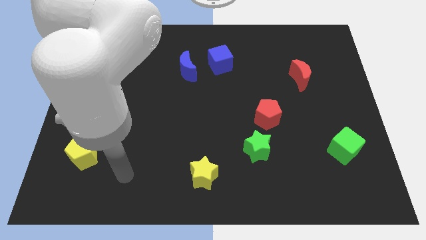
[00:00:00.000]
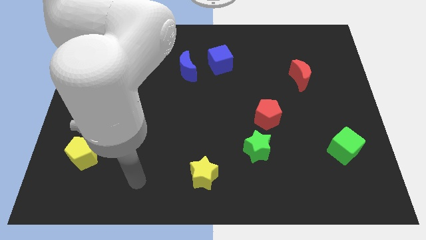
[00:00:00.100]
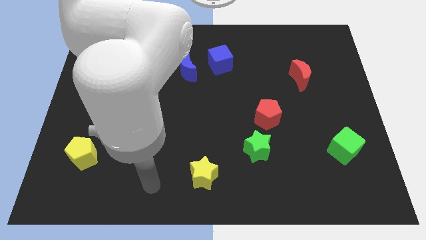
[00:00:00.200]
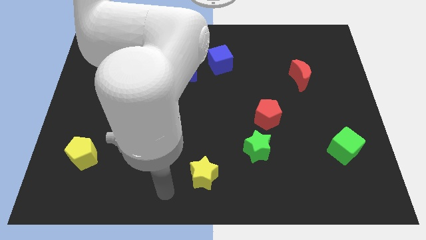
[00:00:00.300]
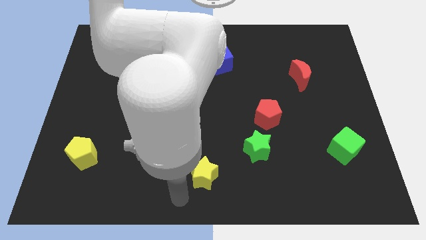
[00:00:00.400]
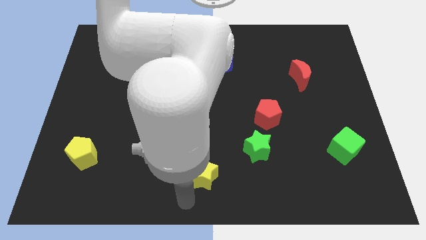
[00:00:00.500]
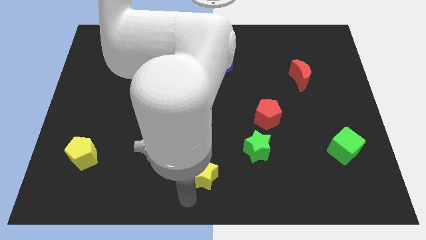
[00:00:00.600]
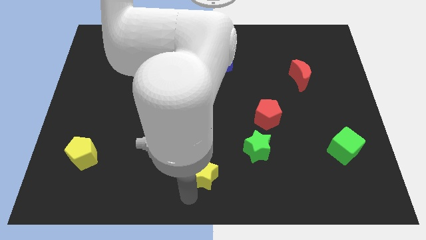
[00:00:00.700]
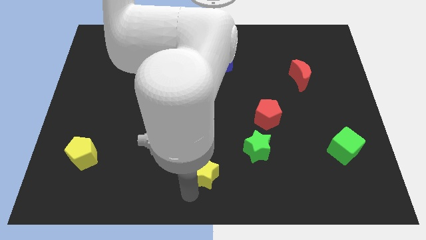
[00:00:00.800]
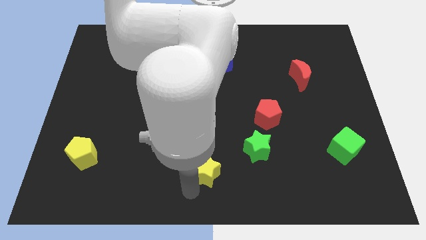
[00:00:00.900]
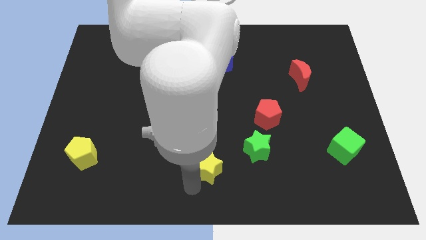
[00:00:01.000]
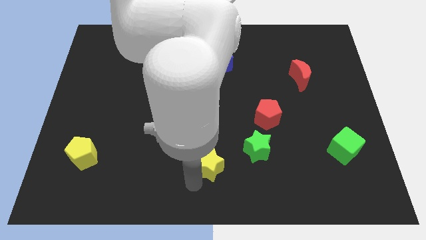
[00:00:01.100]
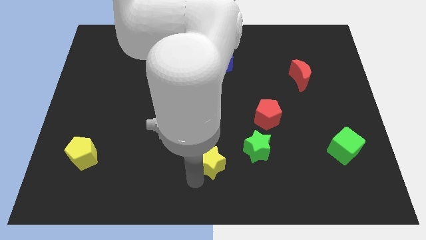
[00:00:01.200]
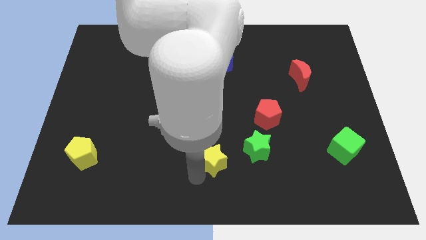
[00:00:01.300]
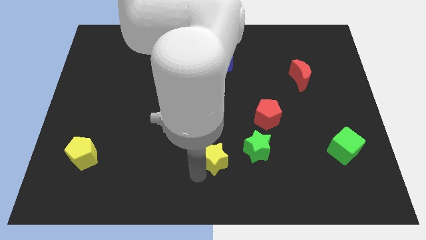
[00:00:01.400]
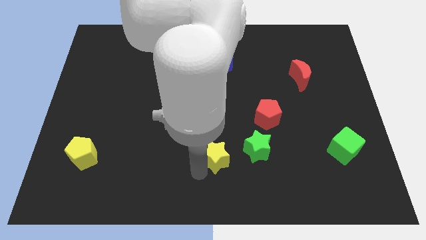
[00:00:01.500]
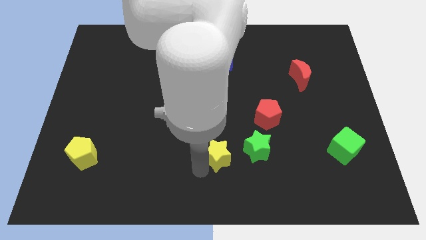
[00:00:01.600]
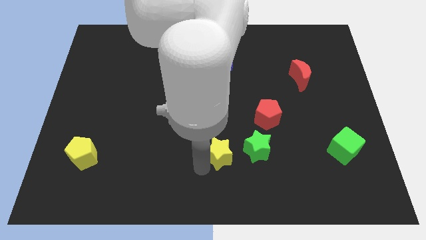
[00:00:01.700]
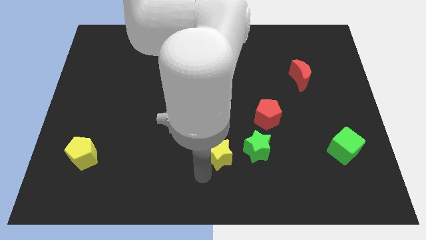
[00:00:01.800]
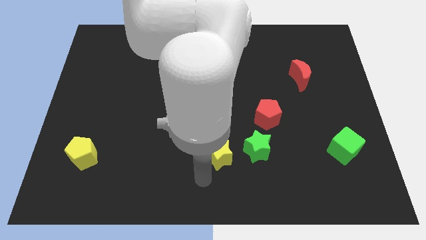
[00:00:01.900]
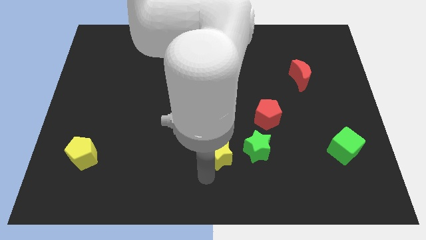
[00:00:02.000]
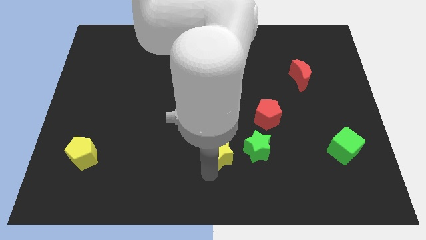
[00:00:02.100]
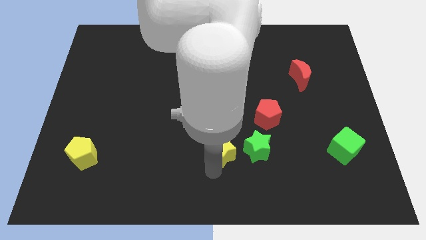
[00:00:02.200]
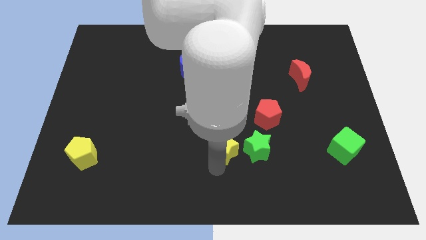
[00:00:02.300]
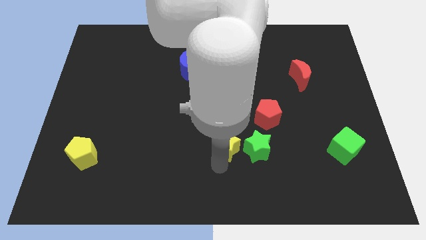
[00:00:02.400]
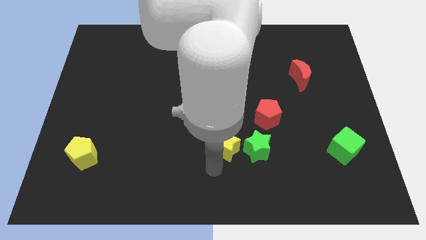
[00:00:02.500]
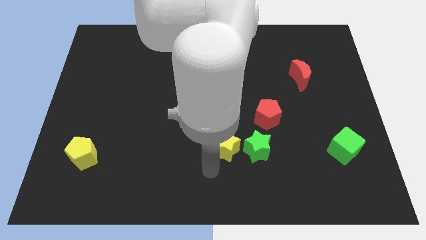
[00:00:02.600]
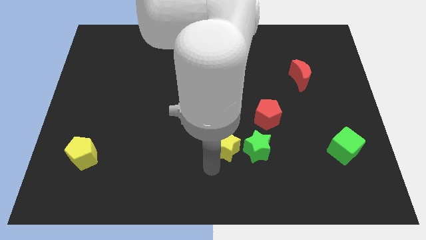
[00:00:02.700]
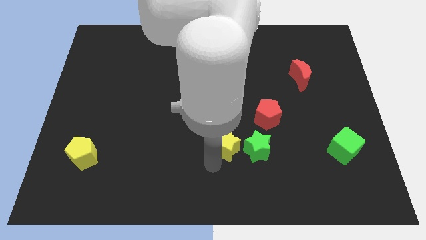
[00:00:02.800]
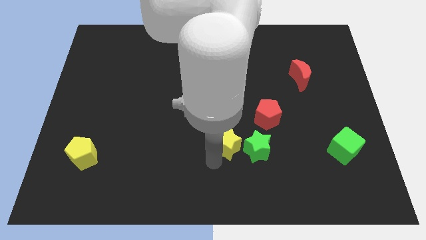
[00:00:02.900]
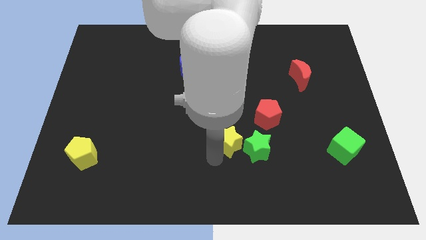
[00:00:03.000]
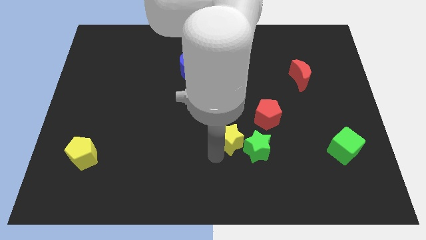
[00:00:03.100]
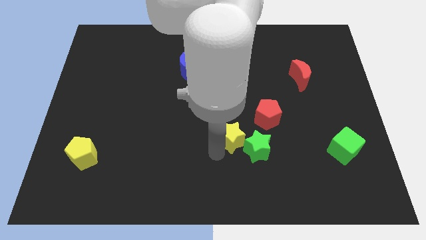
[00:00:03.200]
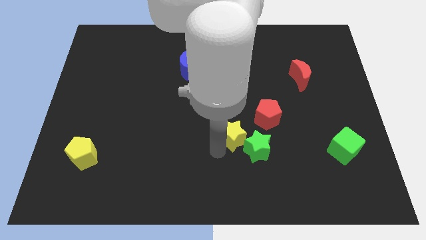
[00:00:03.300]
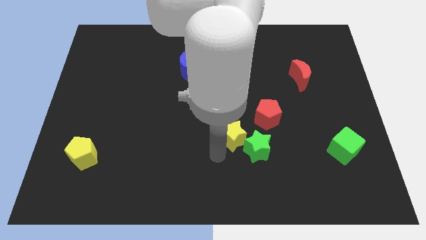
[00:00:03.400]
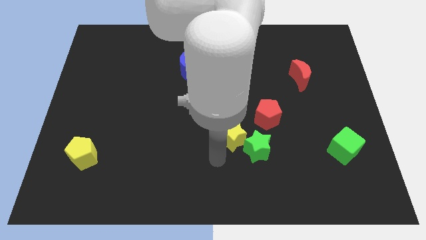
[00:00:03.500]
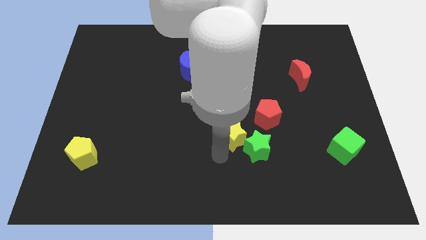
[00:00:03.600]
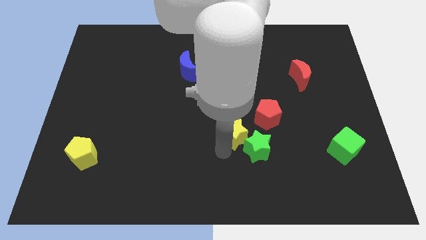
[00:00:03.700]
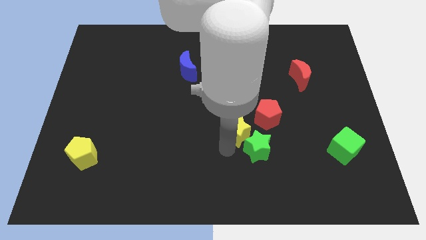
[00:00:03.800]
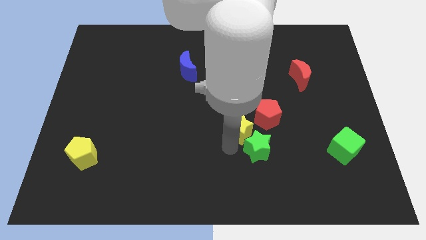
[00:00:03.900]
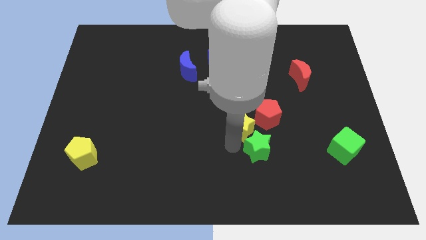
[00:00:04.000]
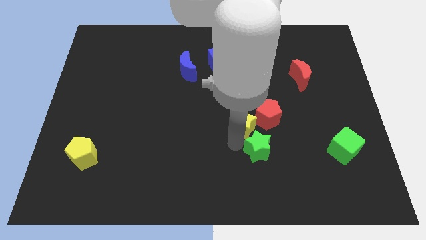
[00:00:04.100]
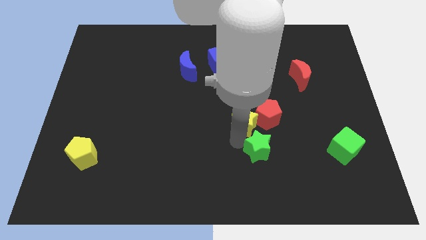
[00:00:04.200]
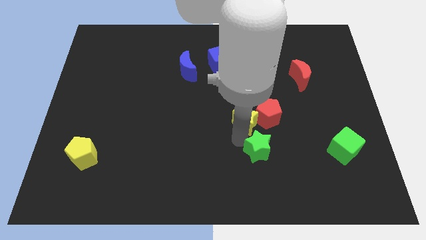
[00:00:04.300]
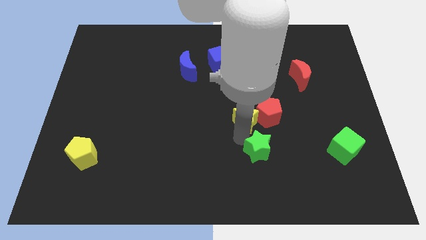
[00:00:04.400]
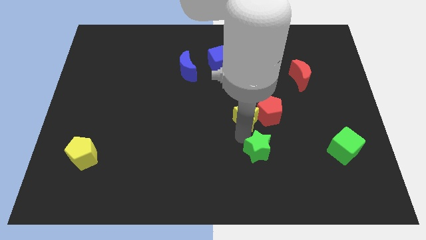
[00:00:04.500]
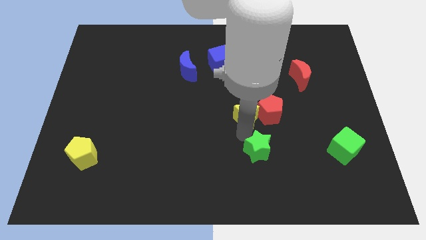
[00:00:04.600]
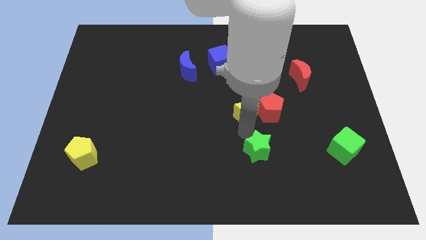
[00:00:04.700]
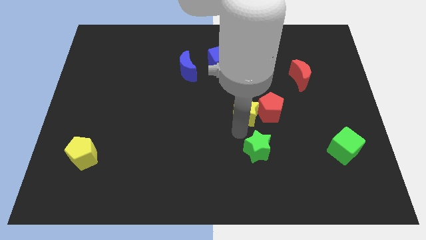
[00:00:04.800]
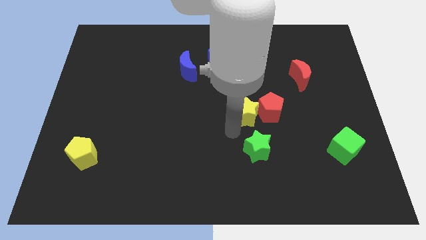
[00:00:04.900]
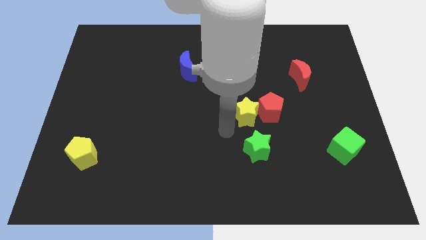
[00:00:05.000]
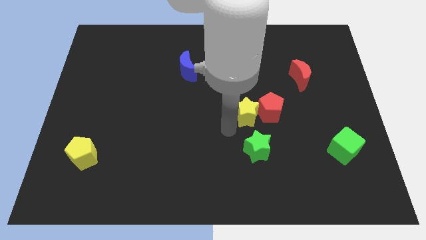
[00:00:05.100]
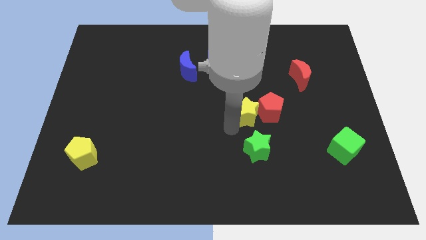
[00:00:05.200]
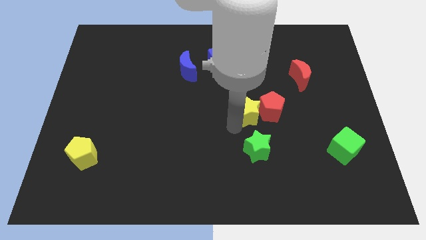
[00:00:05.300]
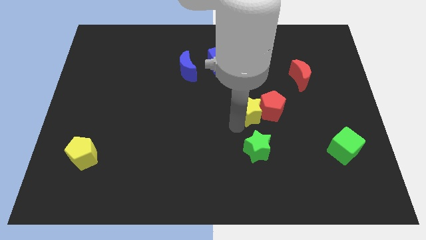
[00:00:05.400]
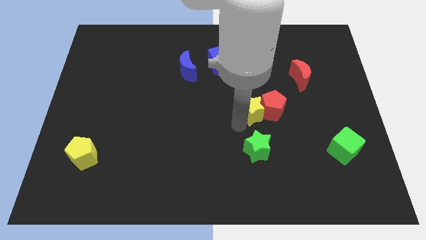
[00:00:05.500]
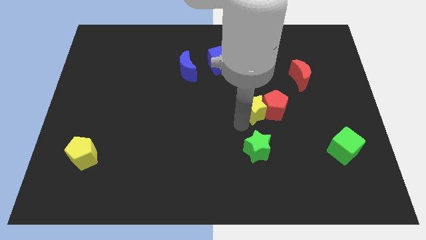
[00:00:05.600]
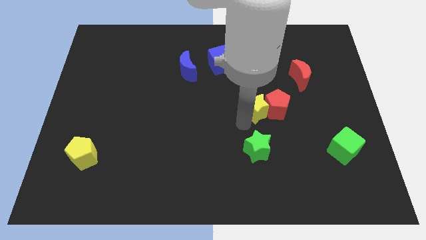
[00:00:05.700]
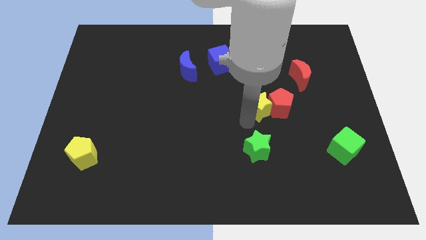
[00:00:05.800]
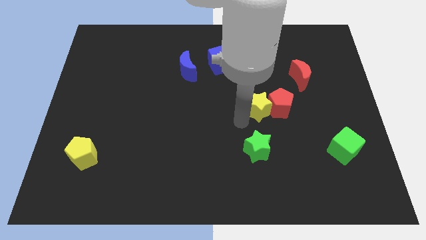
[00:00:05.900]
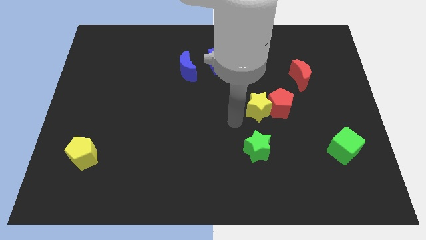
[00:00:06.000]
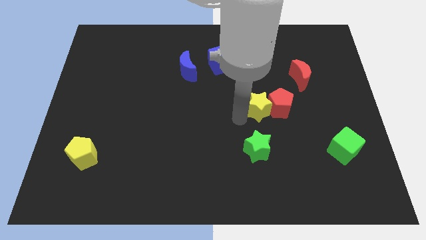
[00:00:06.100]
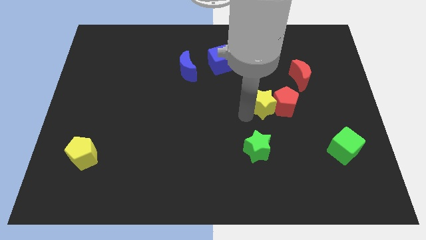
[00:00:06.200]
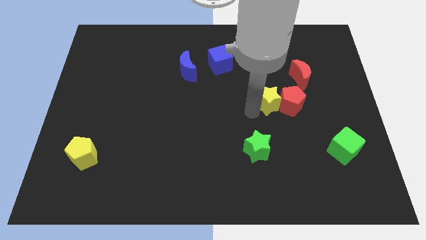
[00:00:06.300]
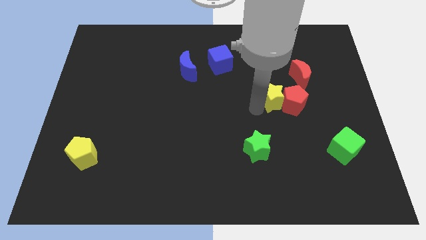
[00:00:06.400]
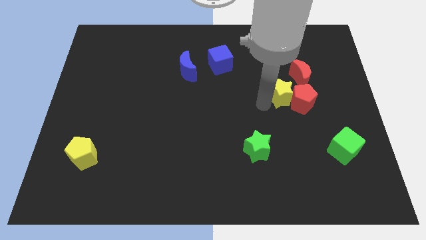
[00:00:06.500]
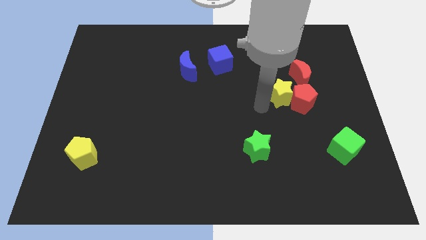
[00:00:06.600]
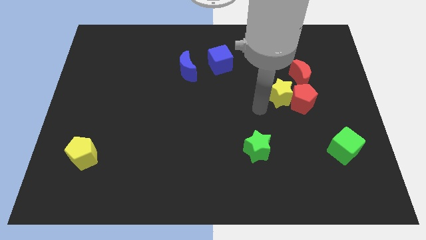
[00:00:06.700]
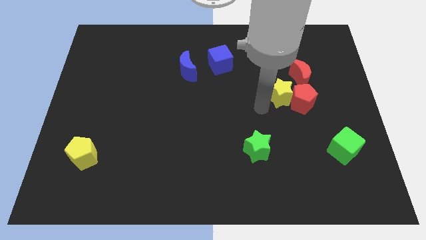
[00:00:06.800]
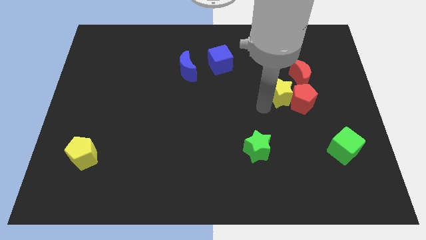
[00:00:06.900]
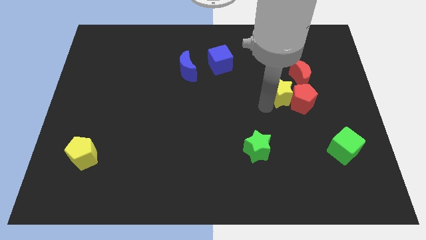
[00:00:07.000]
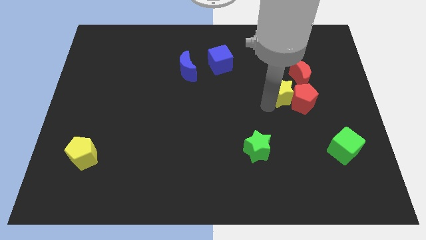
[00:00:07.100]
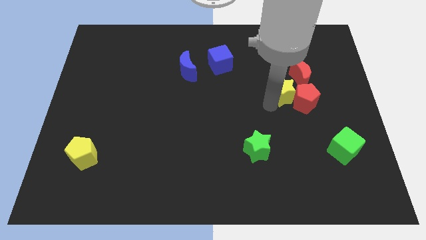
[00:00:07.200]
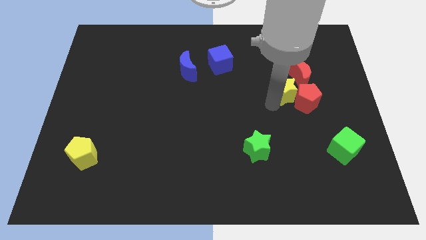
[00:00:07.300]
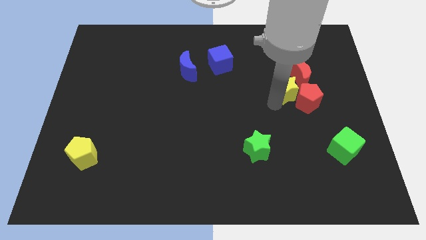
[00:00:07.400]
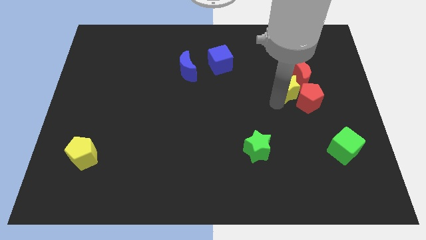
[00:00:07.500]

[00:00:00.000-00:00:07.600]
put the yellow star next to the red moon
